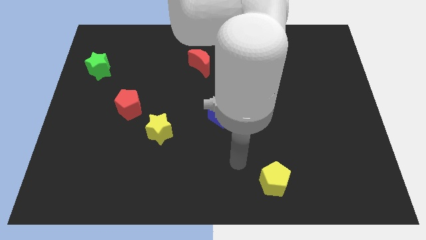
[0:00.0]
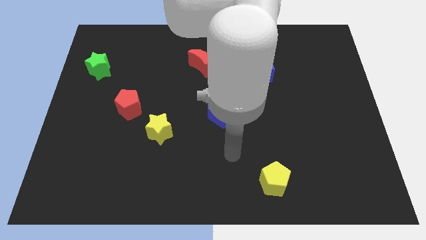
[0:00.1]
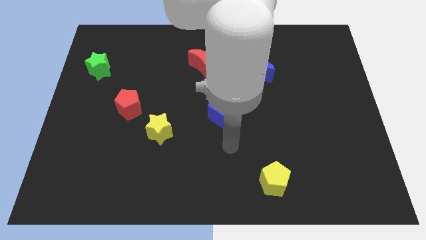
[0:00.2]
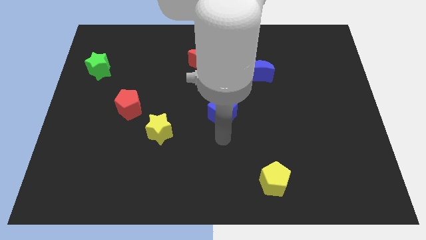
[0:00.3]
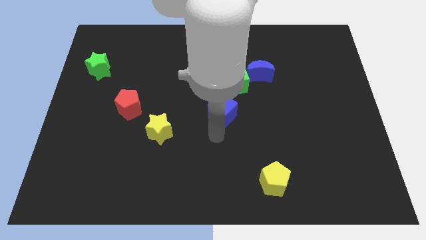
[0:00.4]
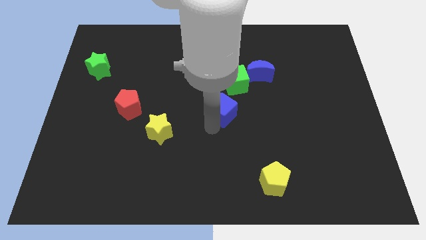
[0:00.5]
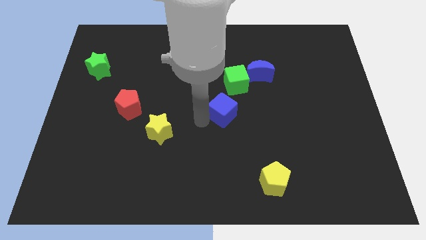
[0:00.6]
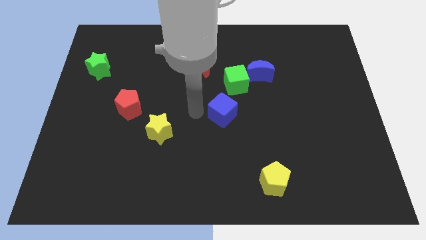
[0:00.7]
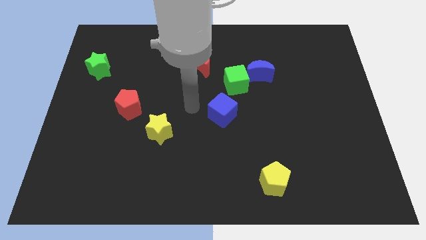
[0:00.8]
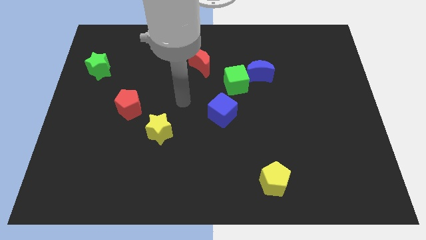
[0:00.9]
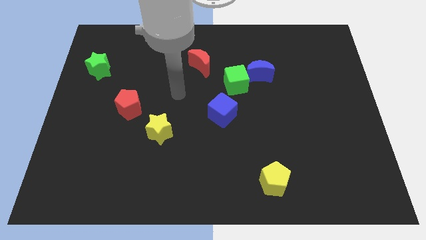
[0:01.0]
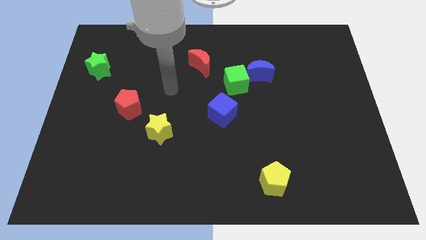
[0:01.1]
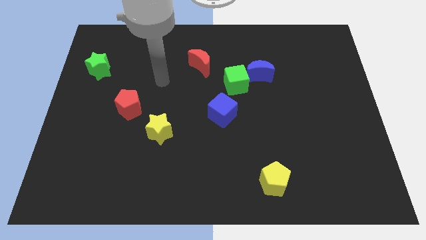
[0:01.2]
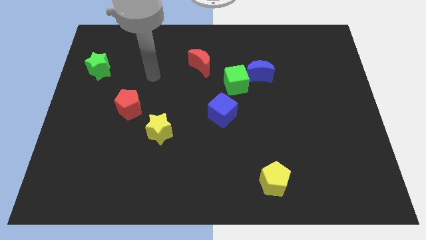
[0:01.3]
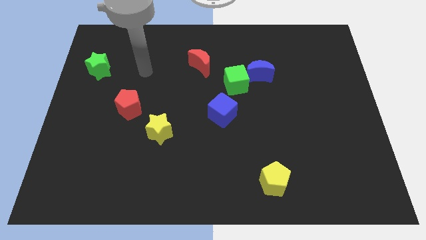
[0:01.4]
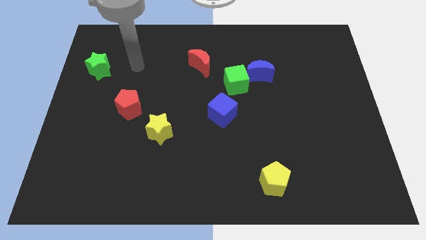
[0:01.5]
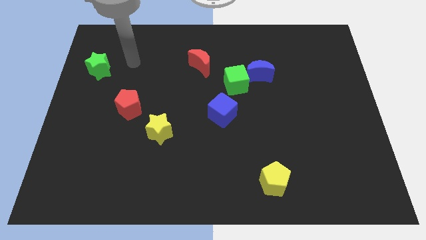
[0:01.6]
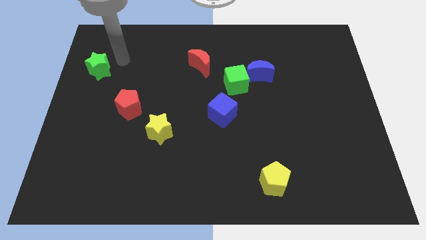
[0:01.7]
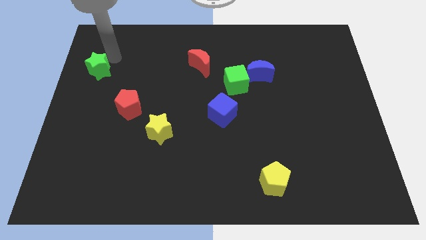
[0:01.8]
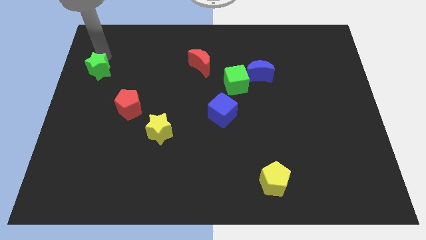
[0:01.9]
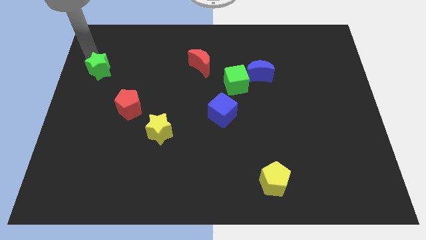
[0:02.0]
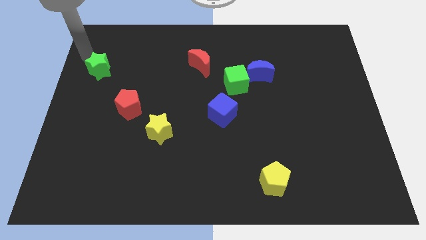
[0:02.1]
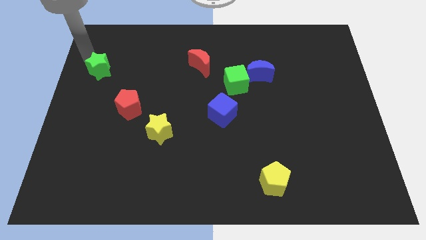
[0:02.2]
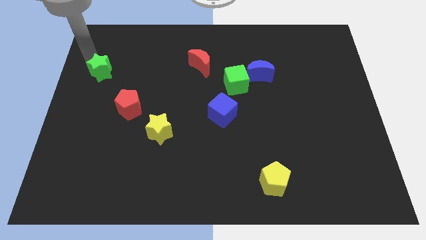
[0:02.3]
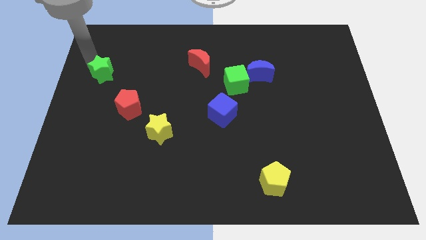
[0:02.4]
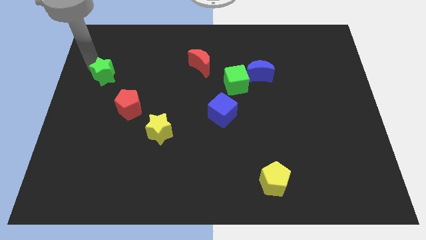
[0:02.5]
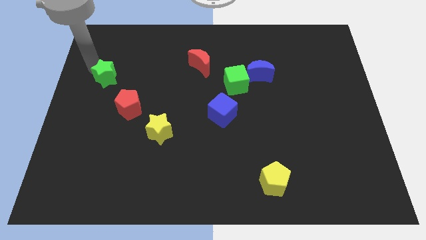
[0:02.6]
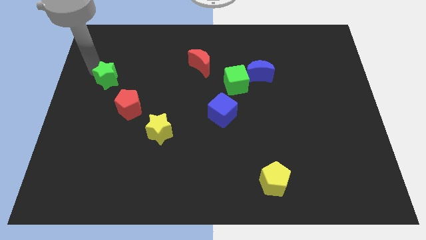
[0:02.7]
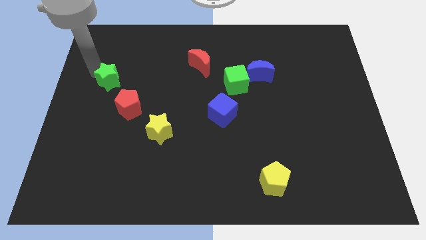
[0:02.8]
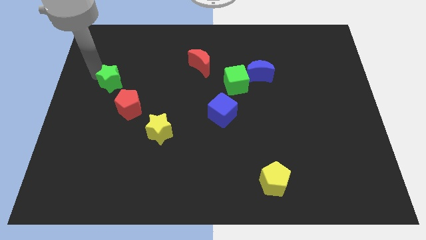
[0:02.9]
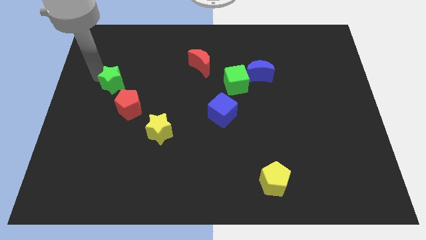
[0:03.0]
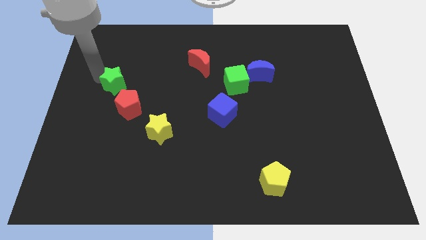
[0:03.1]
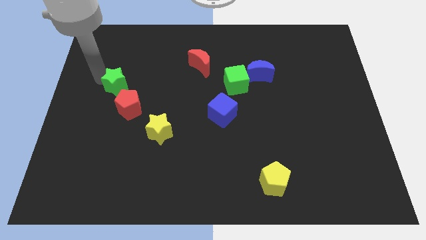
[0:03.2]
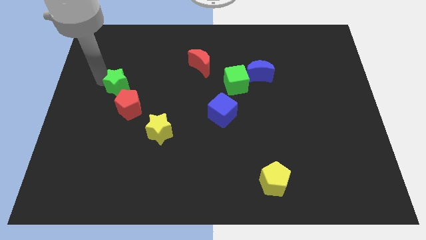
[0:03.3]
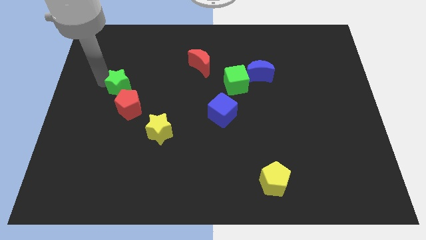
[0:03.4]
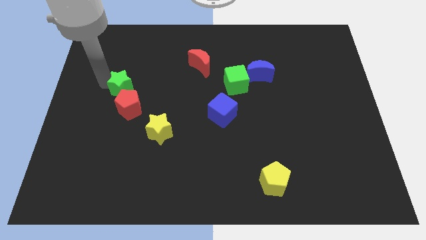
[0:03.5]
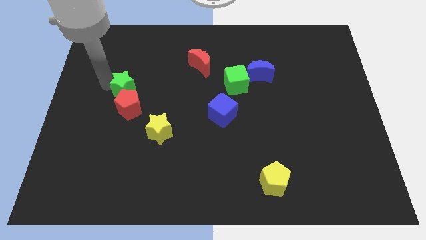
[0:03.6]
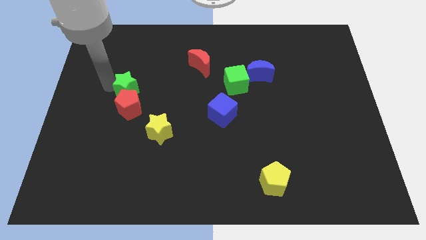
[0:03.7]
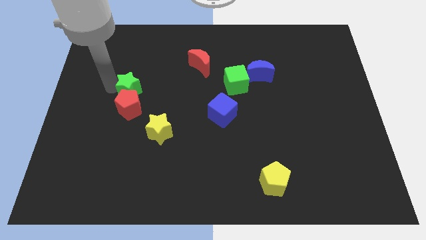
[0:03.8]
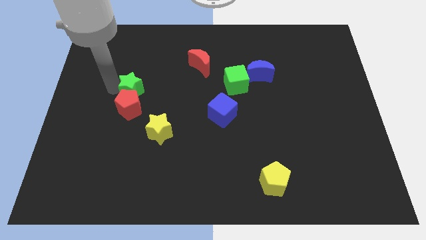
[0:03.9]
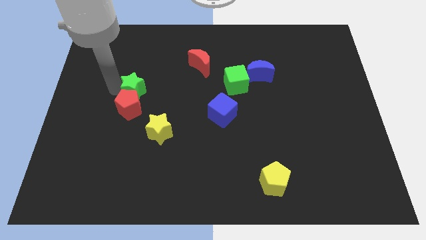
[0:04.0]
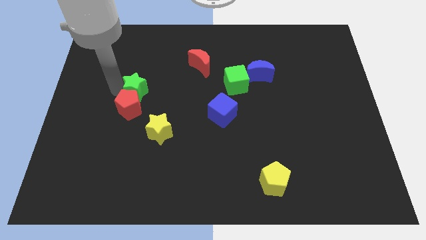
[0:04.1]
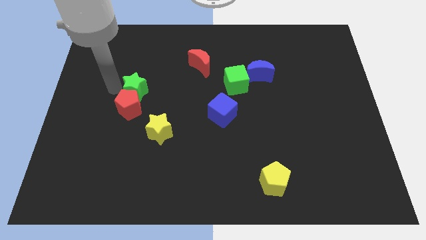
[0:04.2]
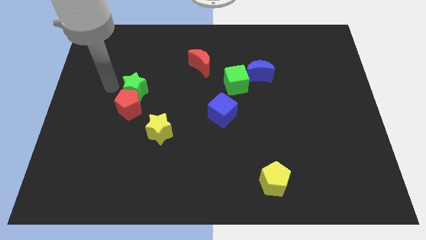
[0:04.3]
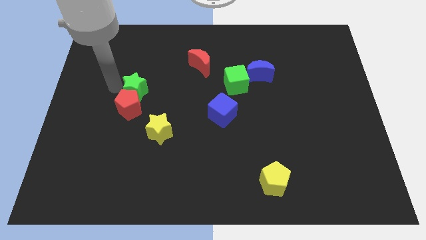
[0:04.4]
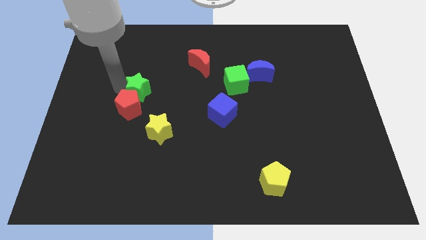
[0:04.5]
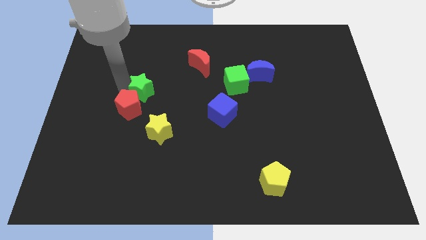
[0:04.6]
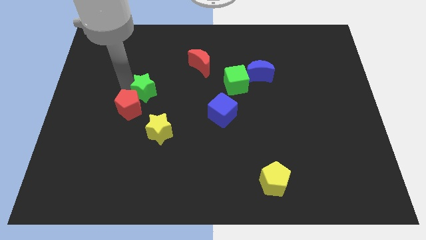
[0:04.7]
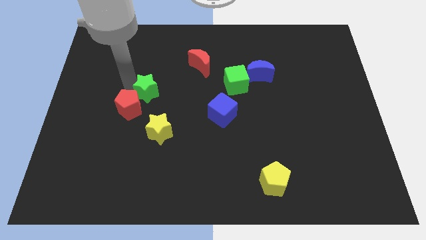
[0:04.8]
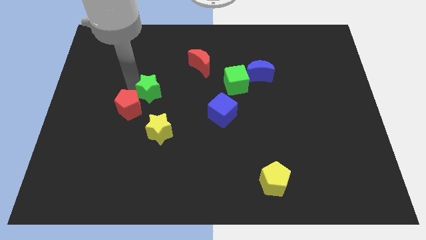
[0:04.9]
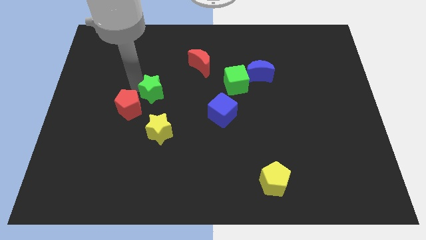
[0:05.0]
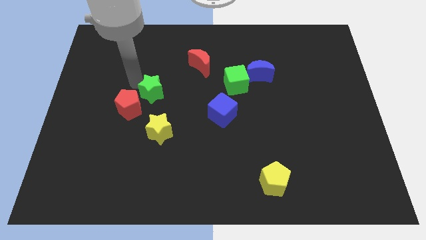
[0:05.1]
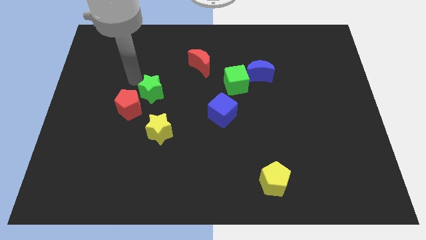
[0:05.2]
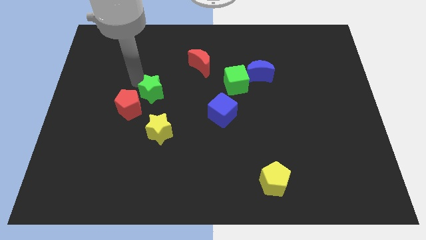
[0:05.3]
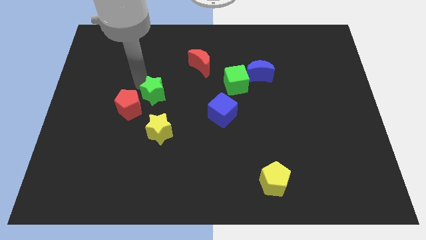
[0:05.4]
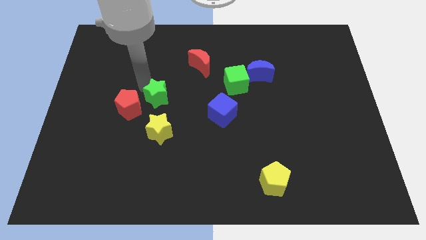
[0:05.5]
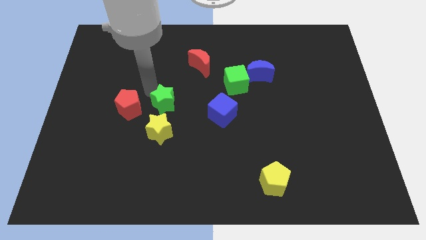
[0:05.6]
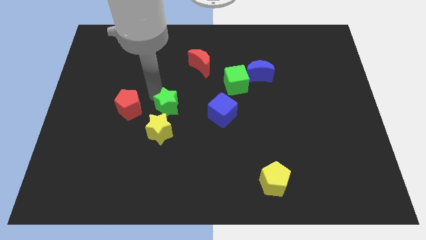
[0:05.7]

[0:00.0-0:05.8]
put the green star to the top right of the yellow star

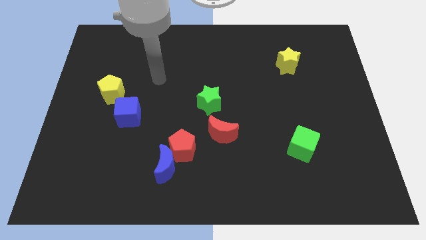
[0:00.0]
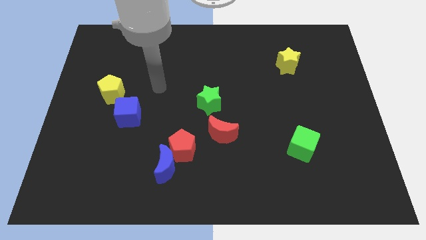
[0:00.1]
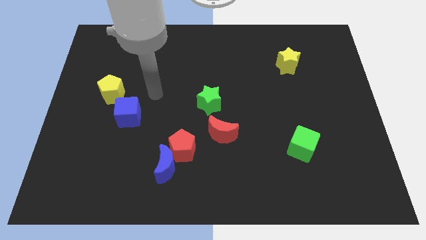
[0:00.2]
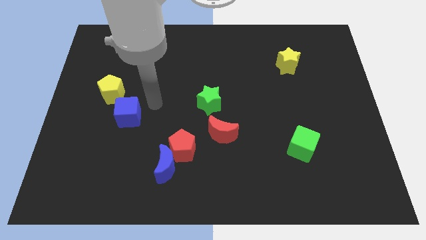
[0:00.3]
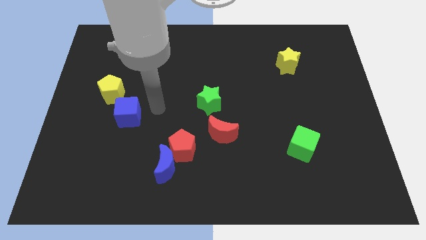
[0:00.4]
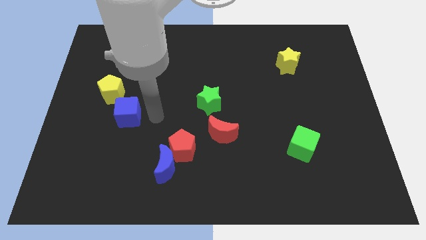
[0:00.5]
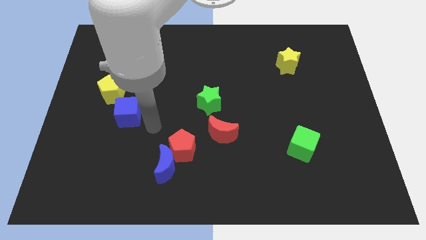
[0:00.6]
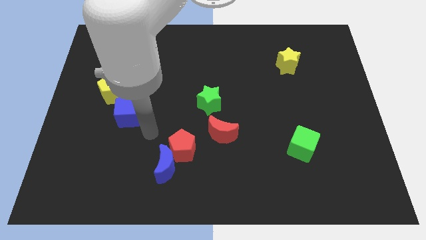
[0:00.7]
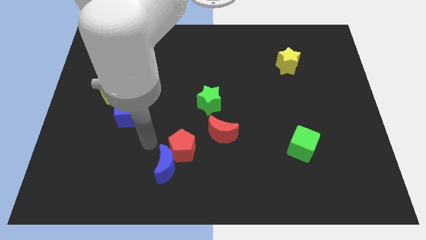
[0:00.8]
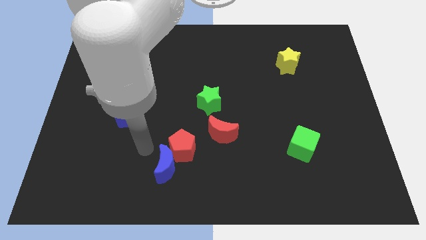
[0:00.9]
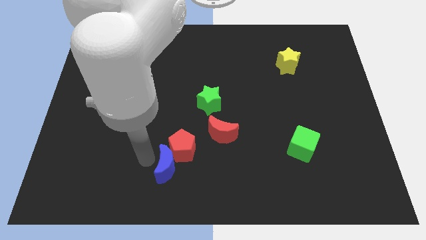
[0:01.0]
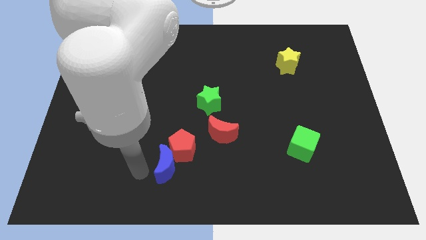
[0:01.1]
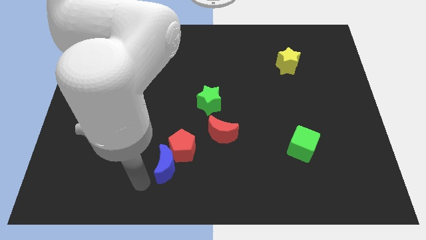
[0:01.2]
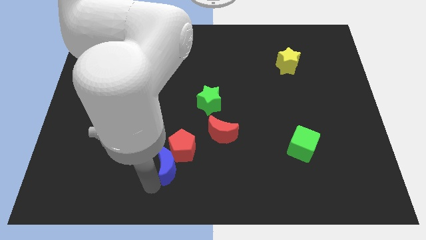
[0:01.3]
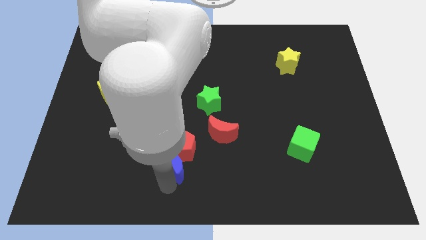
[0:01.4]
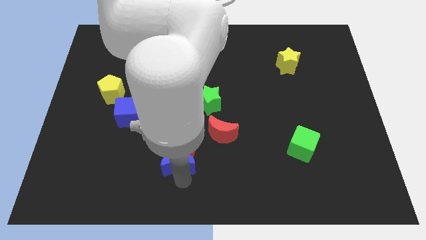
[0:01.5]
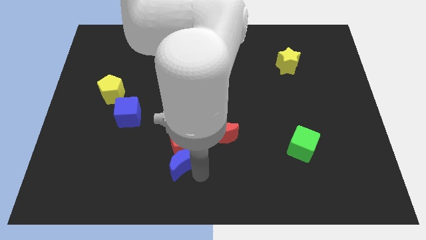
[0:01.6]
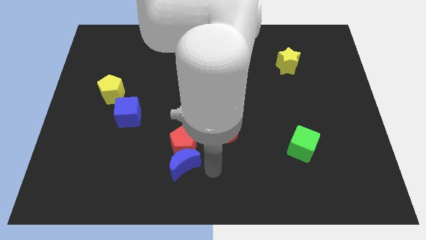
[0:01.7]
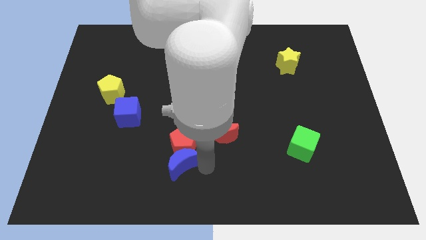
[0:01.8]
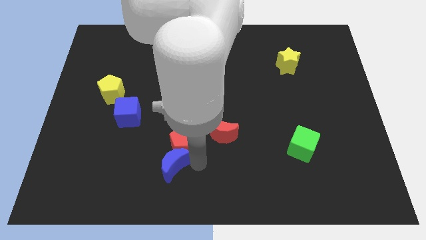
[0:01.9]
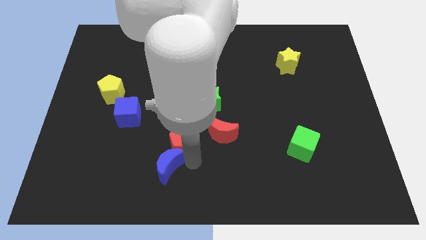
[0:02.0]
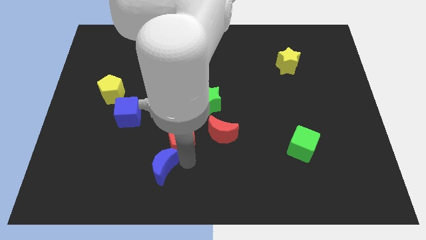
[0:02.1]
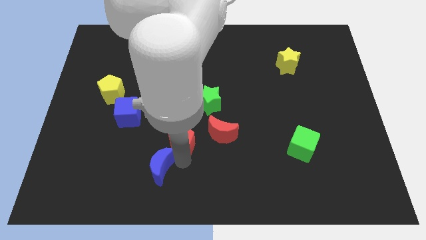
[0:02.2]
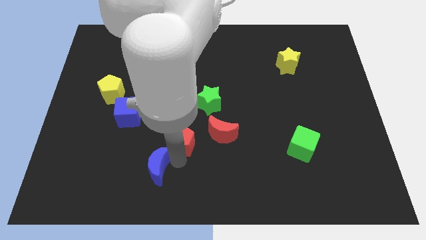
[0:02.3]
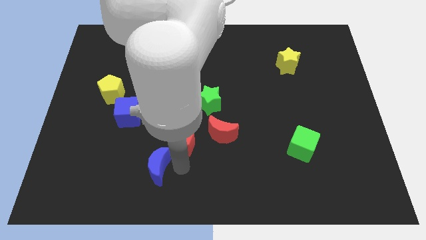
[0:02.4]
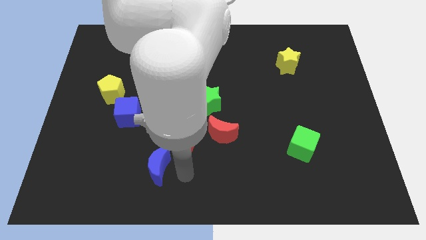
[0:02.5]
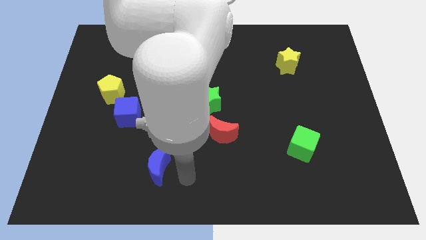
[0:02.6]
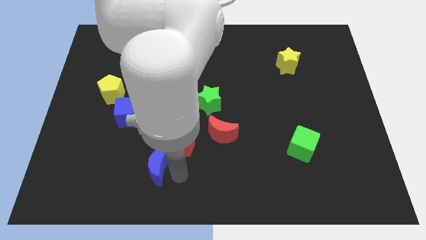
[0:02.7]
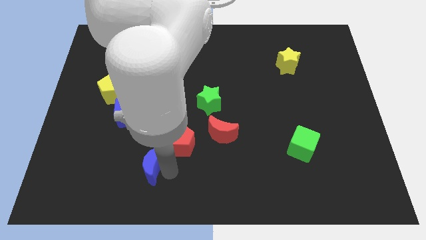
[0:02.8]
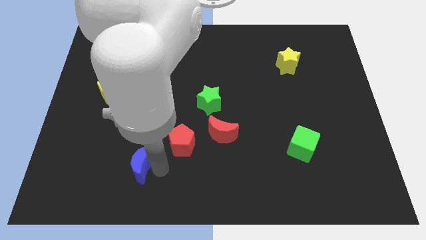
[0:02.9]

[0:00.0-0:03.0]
push the blue moon to the bottom side of the blue cube
